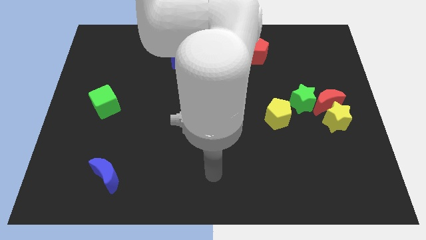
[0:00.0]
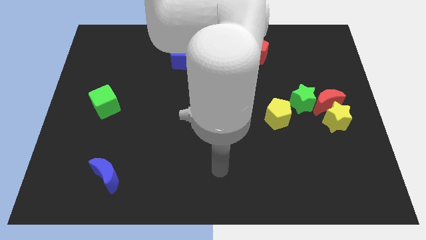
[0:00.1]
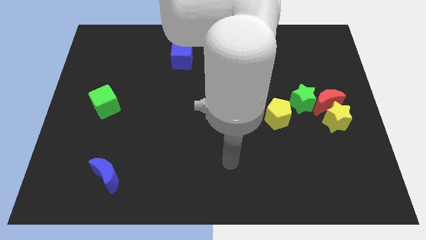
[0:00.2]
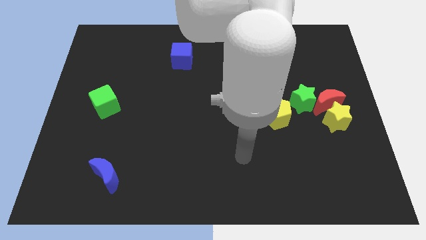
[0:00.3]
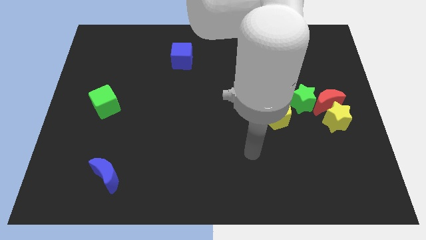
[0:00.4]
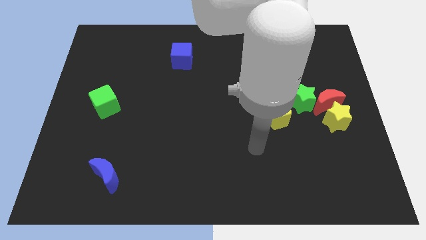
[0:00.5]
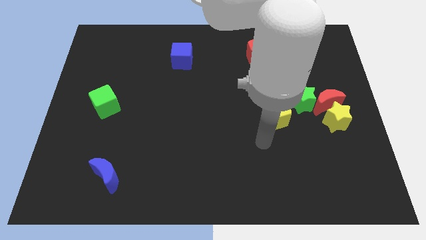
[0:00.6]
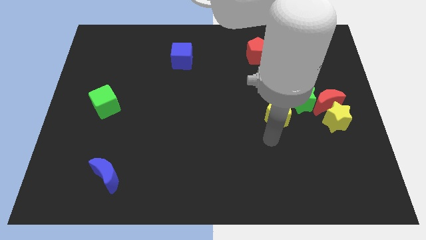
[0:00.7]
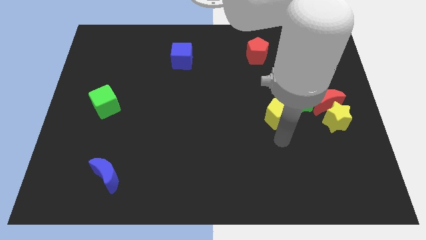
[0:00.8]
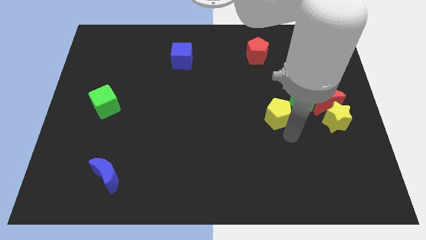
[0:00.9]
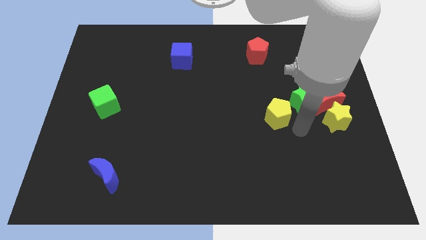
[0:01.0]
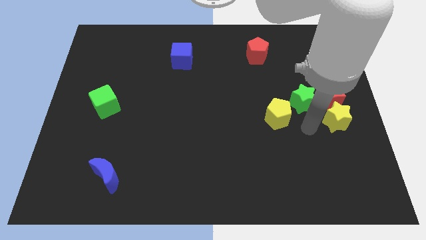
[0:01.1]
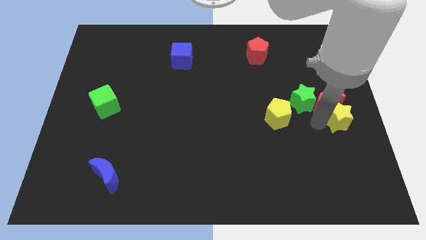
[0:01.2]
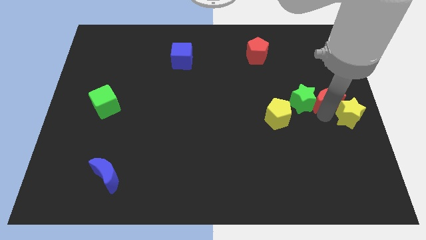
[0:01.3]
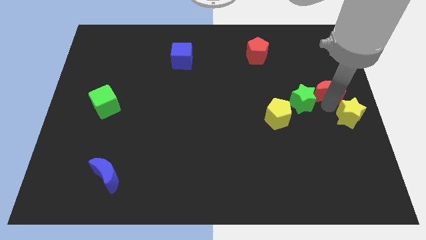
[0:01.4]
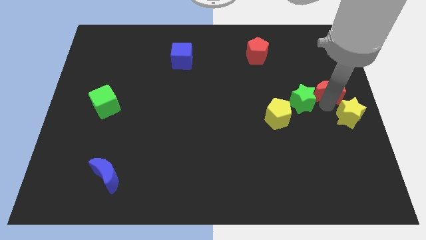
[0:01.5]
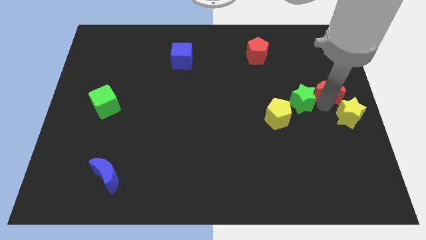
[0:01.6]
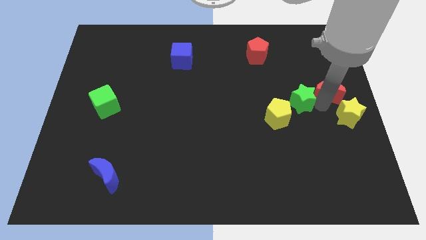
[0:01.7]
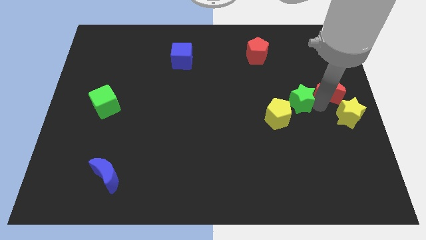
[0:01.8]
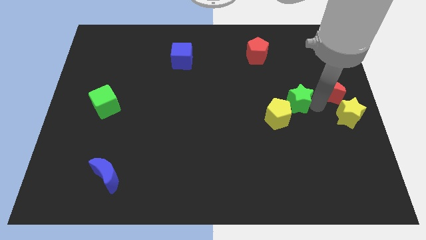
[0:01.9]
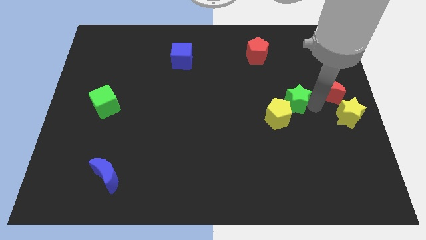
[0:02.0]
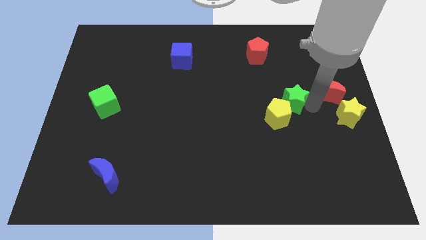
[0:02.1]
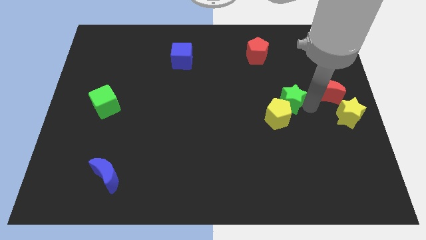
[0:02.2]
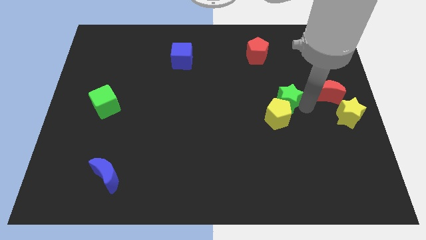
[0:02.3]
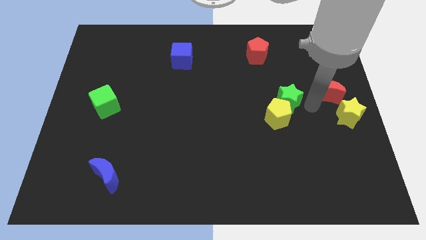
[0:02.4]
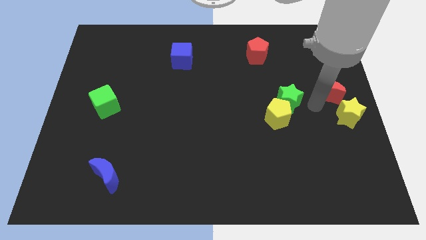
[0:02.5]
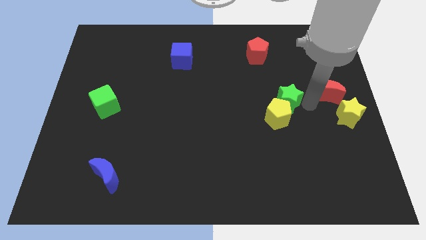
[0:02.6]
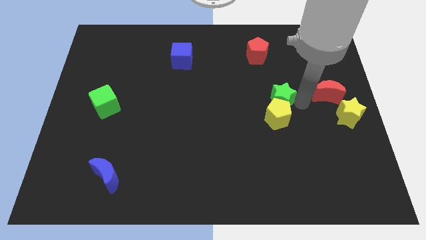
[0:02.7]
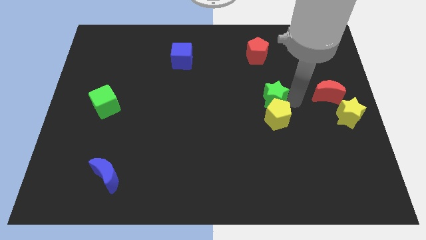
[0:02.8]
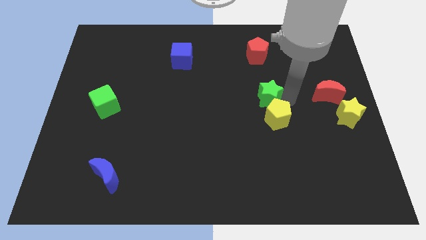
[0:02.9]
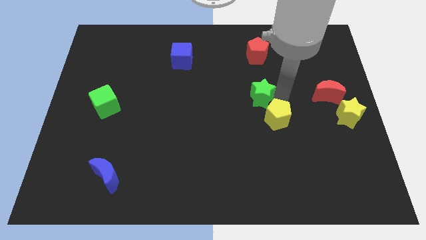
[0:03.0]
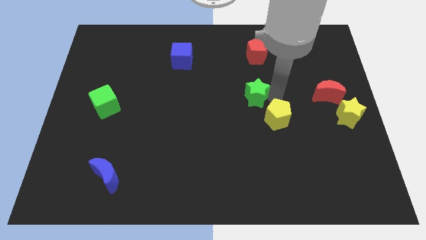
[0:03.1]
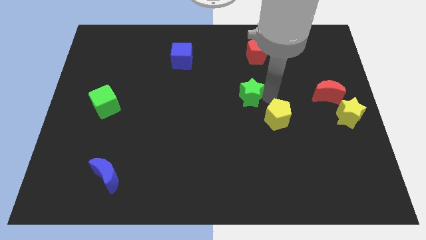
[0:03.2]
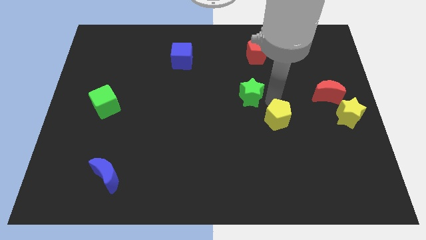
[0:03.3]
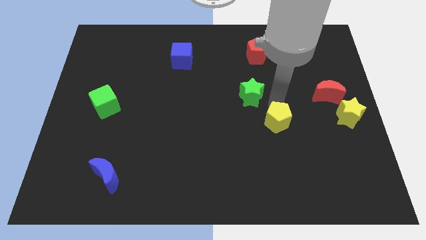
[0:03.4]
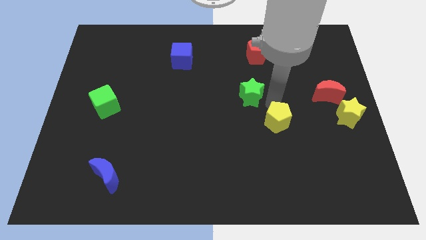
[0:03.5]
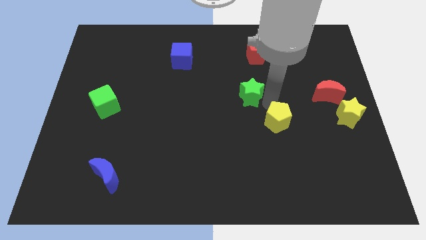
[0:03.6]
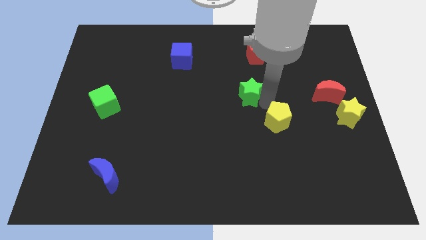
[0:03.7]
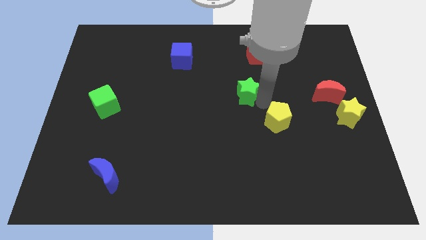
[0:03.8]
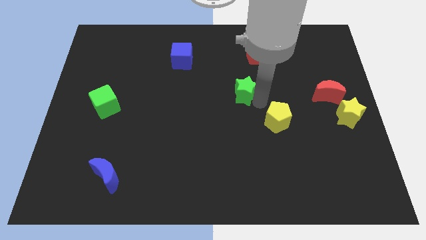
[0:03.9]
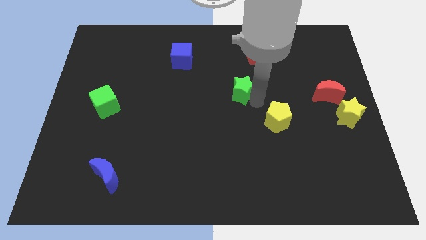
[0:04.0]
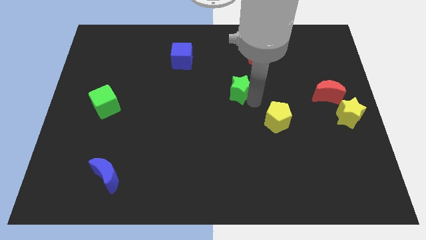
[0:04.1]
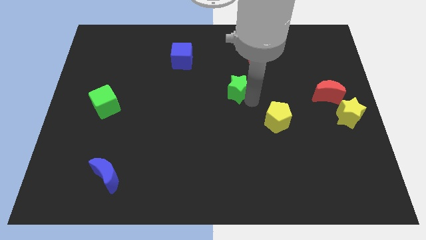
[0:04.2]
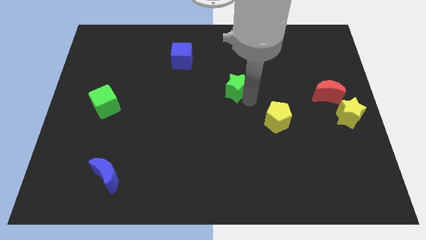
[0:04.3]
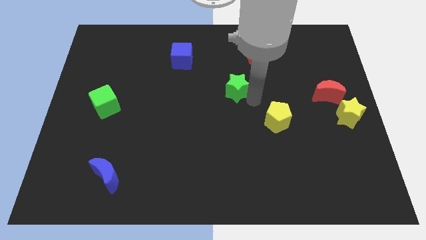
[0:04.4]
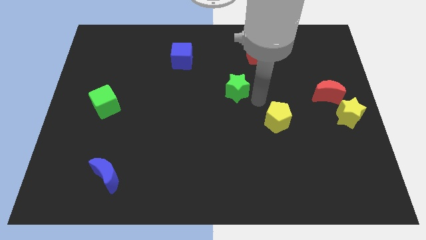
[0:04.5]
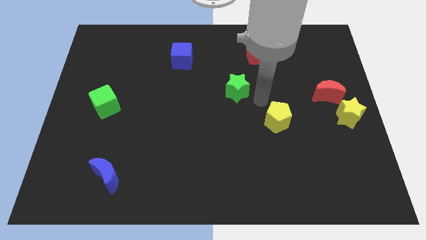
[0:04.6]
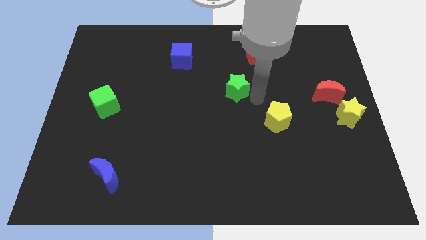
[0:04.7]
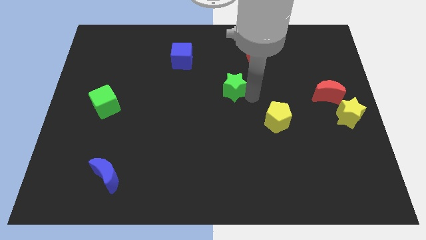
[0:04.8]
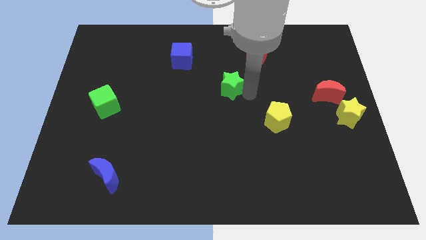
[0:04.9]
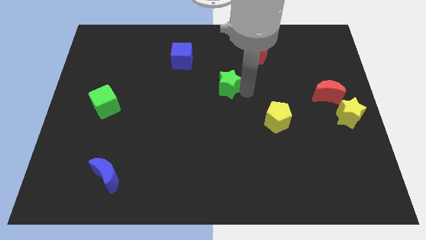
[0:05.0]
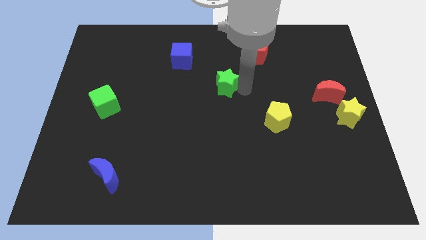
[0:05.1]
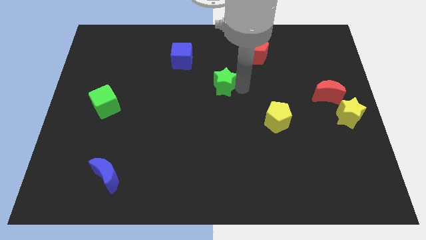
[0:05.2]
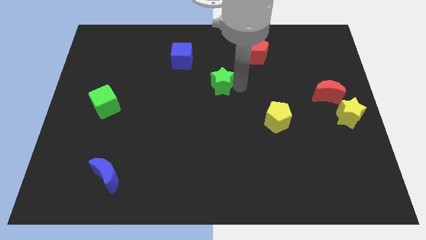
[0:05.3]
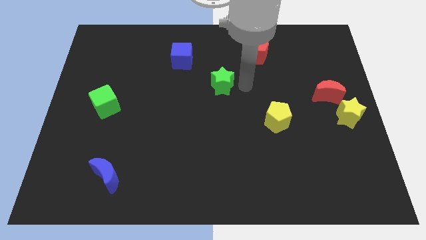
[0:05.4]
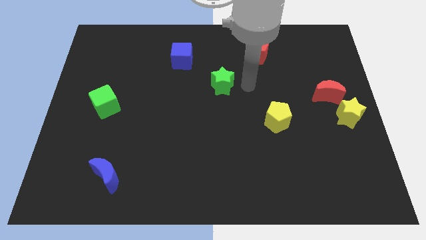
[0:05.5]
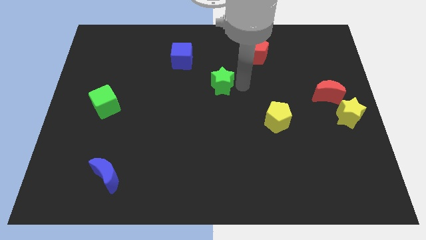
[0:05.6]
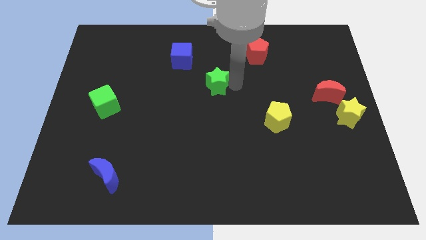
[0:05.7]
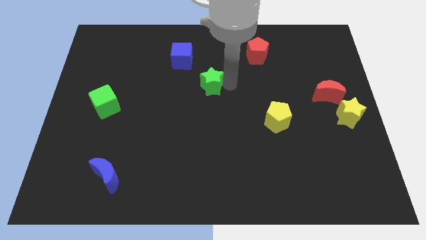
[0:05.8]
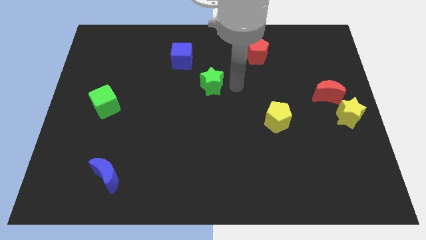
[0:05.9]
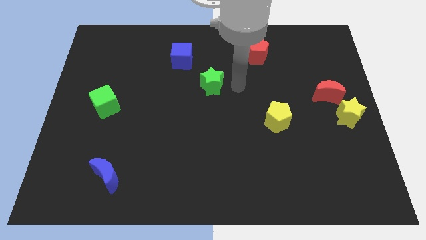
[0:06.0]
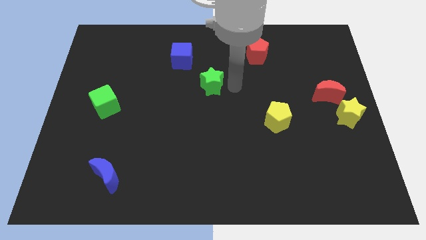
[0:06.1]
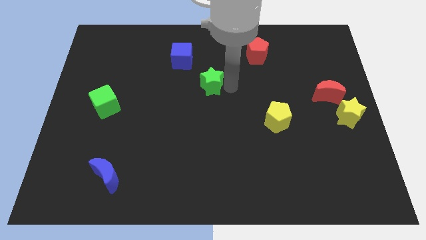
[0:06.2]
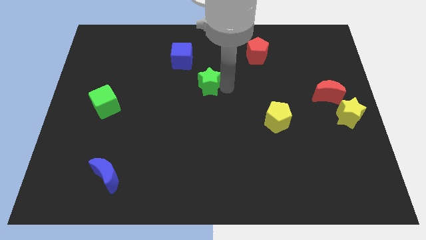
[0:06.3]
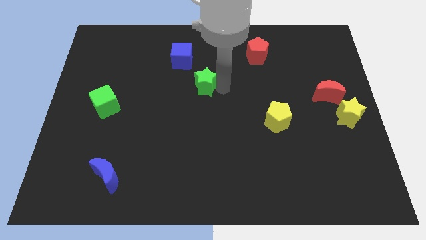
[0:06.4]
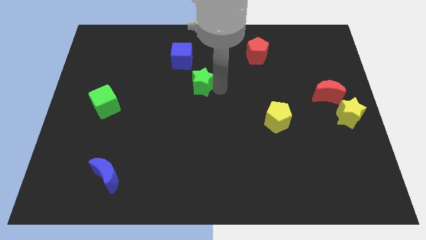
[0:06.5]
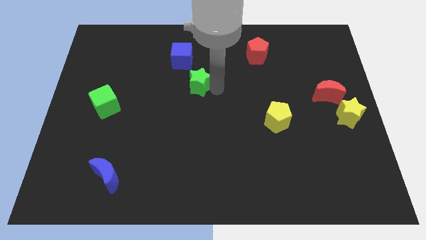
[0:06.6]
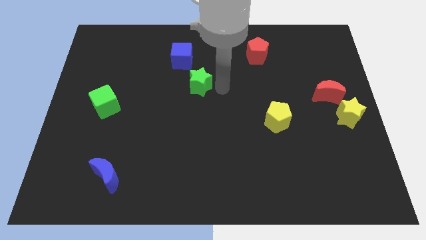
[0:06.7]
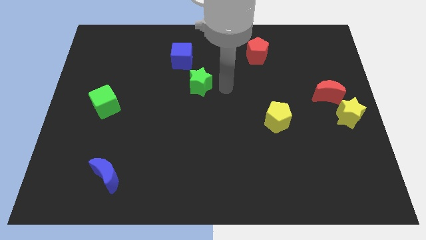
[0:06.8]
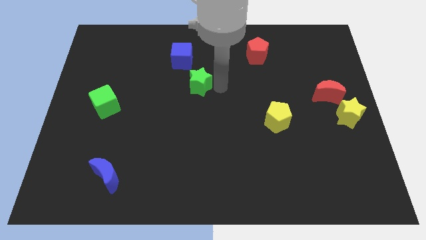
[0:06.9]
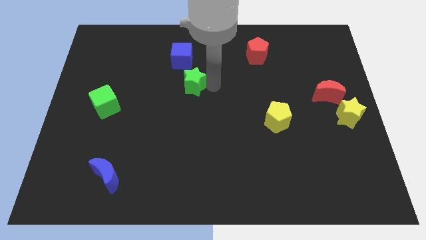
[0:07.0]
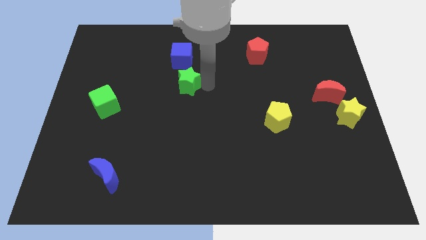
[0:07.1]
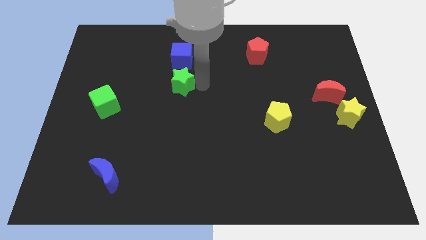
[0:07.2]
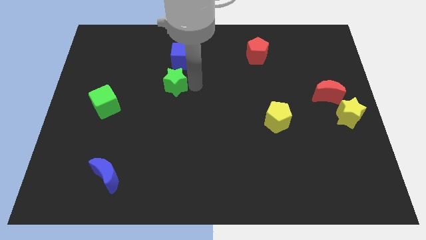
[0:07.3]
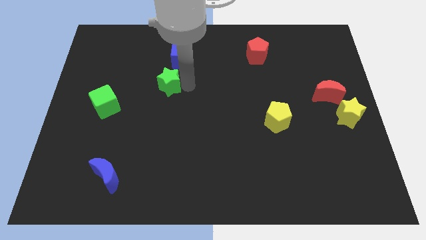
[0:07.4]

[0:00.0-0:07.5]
slide the green star to the bottom left side of the blue cube
